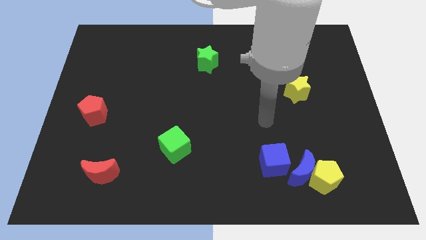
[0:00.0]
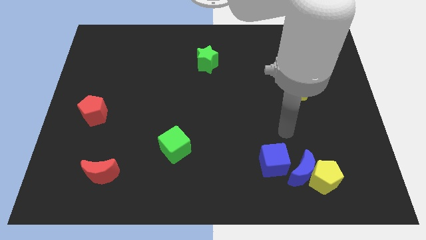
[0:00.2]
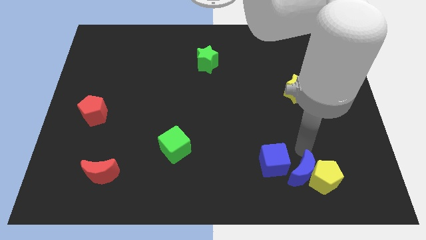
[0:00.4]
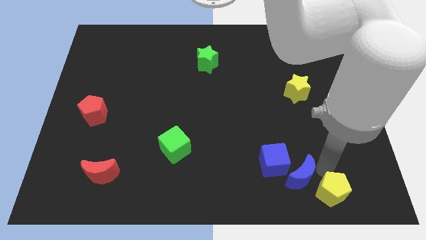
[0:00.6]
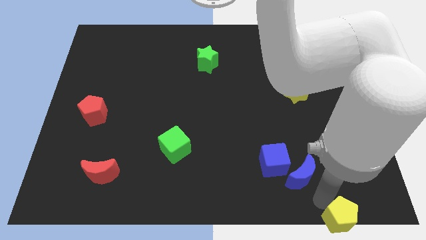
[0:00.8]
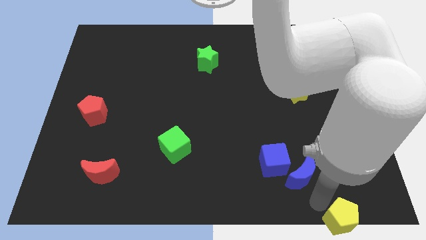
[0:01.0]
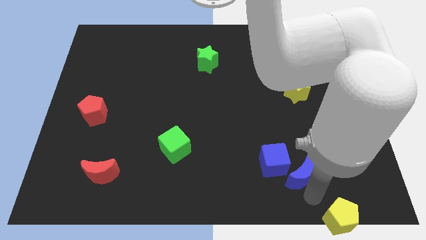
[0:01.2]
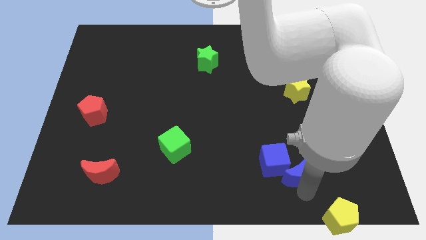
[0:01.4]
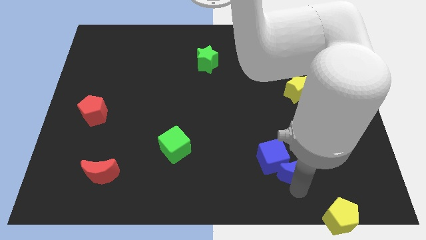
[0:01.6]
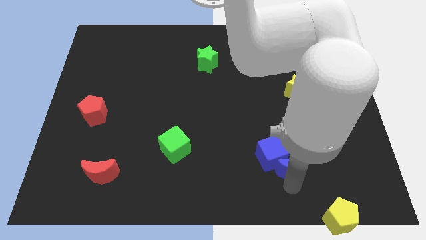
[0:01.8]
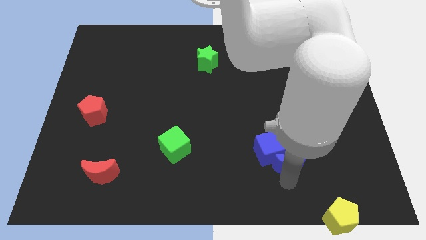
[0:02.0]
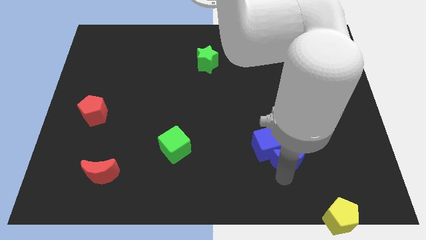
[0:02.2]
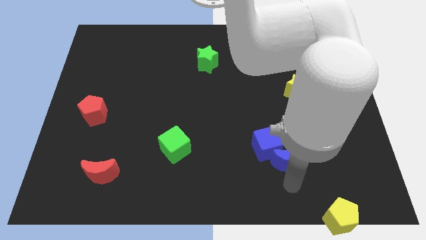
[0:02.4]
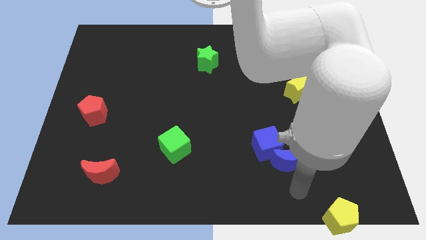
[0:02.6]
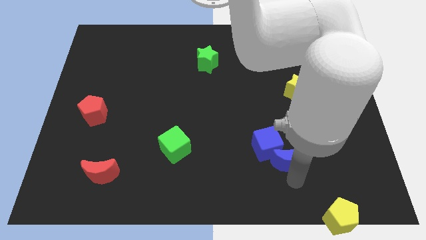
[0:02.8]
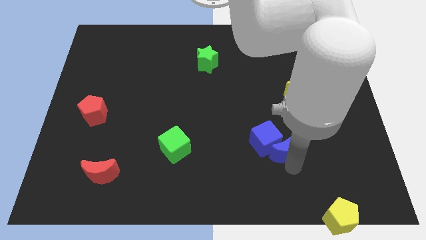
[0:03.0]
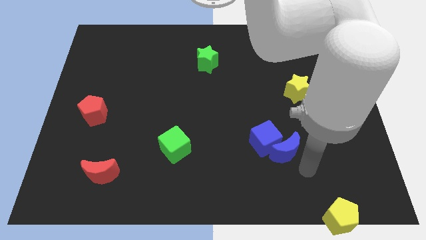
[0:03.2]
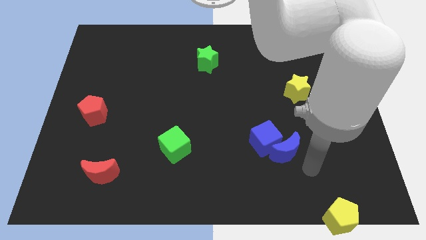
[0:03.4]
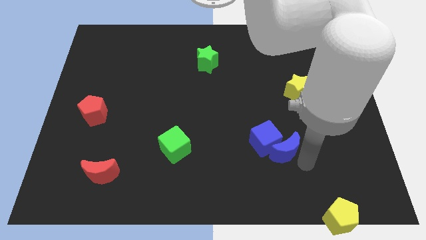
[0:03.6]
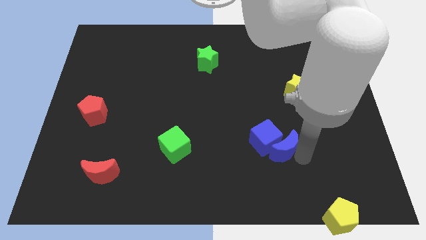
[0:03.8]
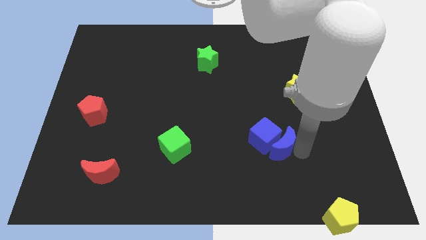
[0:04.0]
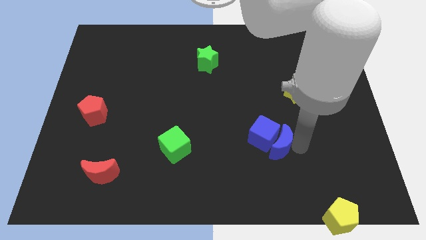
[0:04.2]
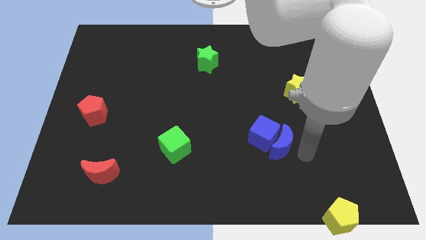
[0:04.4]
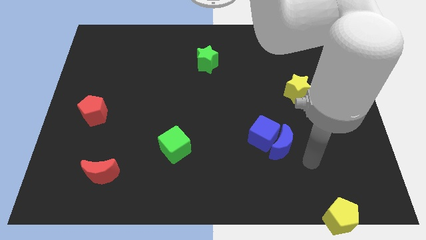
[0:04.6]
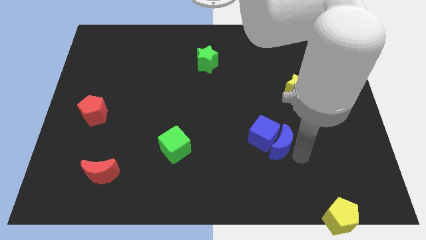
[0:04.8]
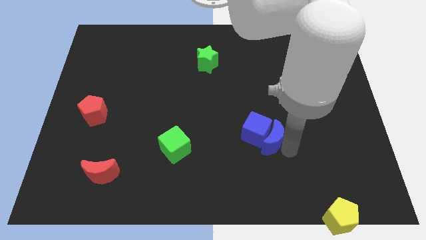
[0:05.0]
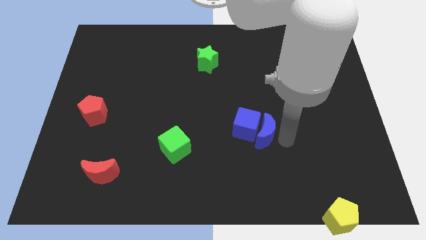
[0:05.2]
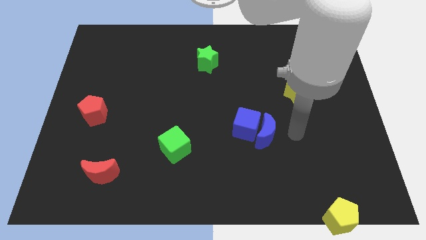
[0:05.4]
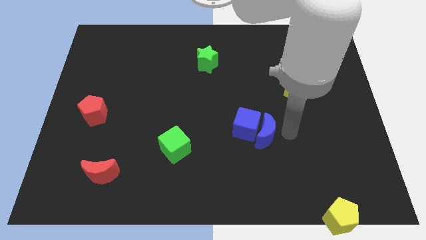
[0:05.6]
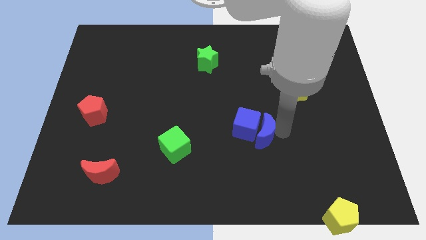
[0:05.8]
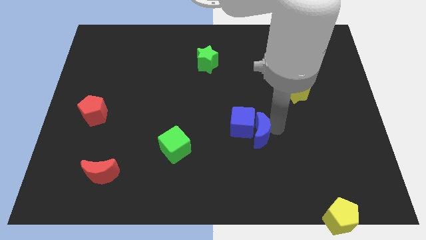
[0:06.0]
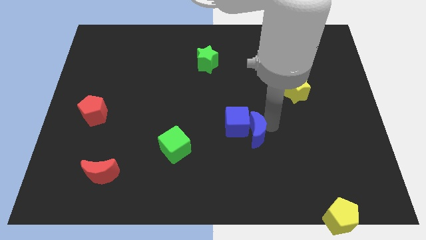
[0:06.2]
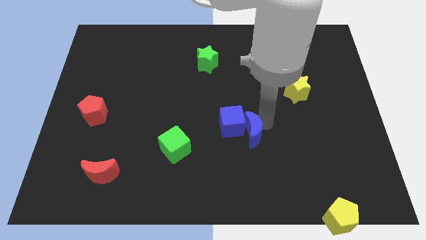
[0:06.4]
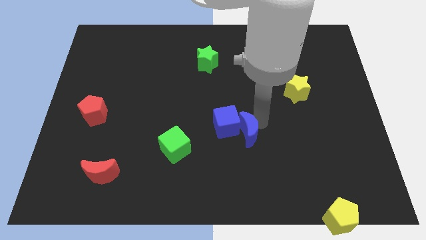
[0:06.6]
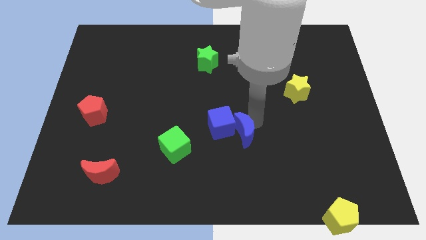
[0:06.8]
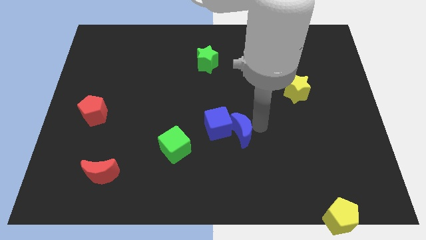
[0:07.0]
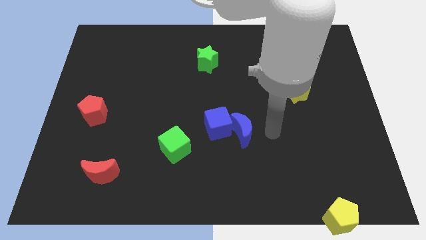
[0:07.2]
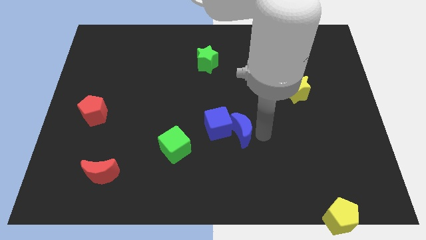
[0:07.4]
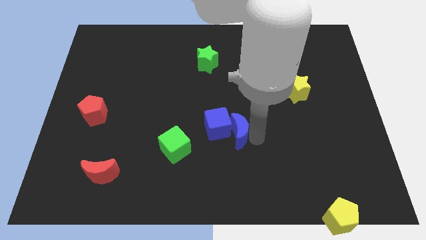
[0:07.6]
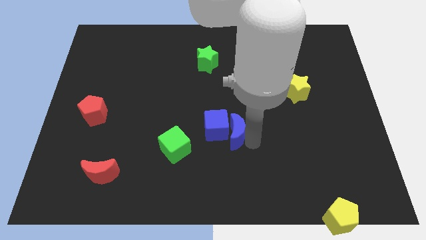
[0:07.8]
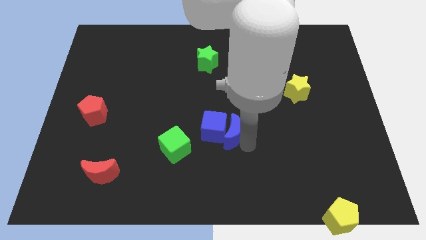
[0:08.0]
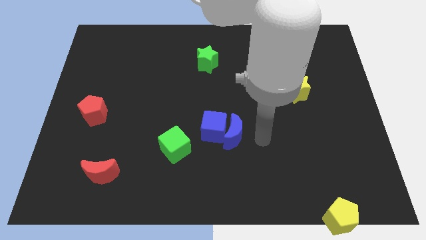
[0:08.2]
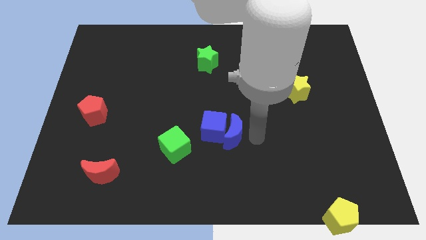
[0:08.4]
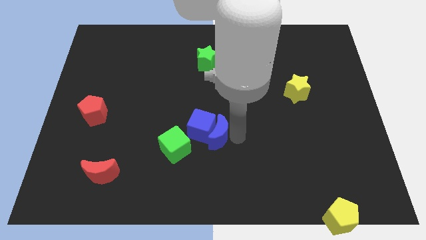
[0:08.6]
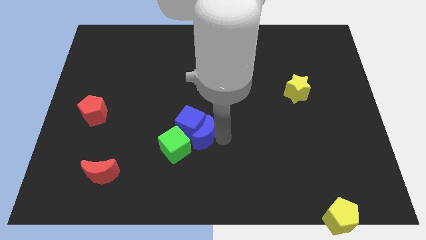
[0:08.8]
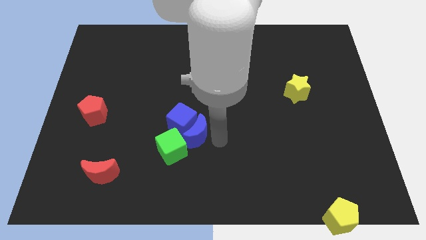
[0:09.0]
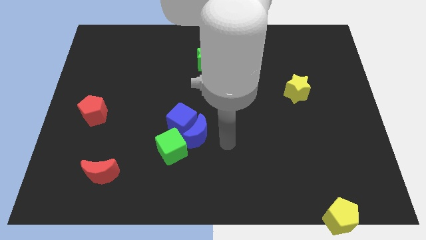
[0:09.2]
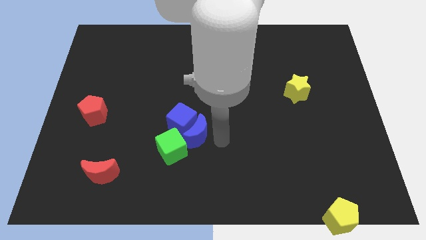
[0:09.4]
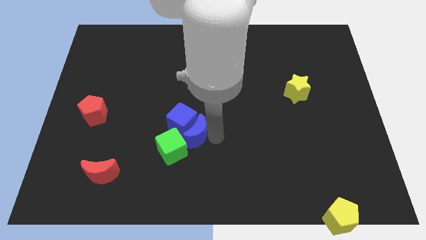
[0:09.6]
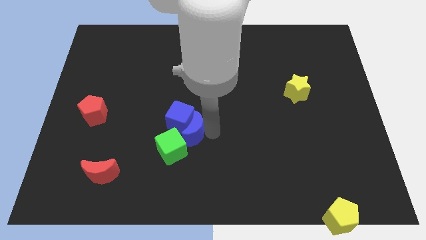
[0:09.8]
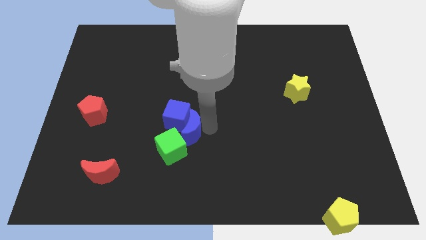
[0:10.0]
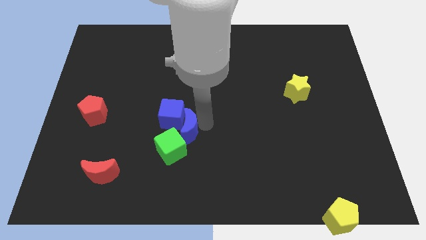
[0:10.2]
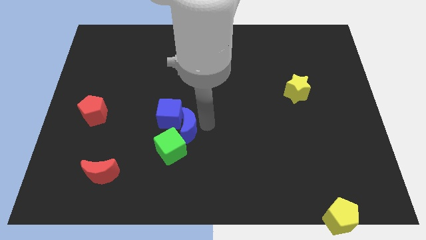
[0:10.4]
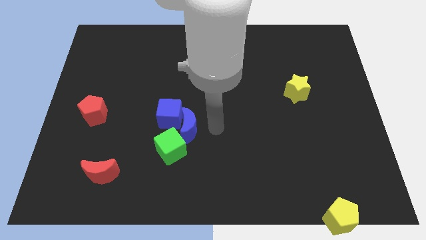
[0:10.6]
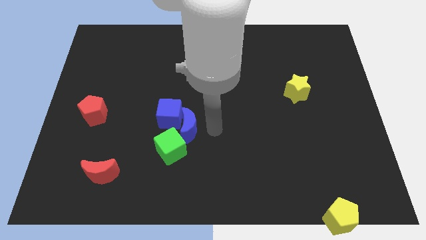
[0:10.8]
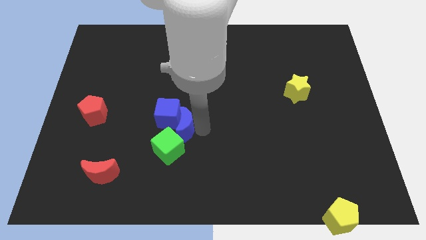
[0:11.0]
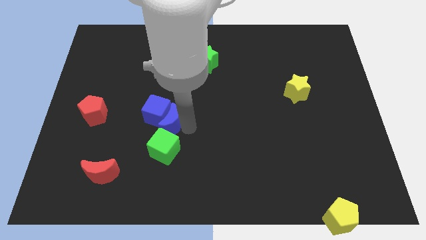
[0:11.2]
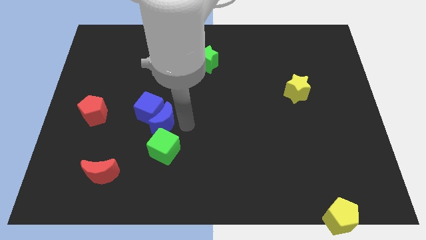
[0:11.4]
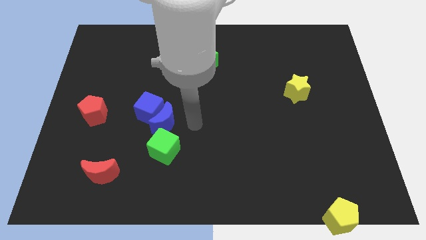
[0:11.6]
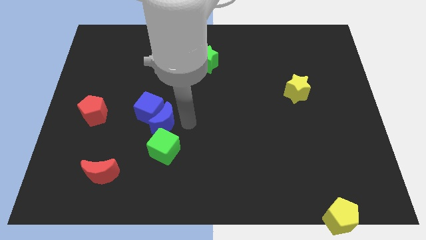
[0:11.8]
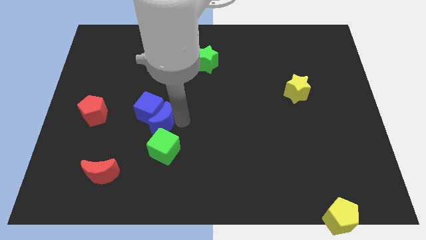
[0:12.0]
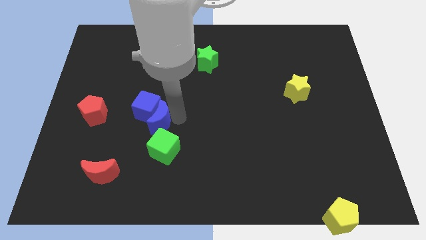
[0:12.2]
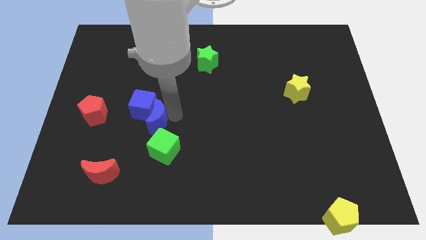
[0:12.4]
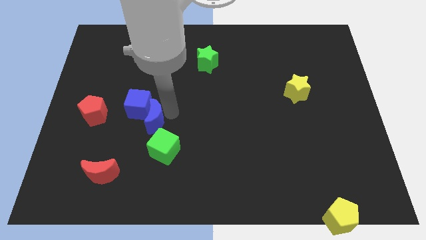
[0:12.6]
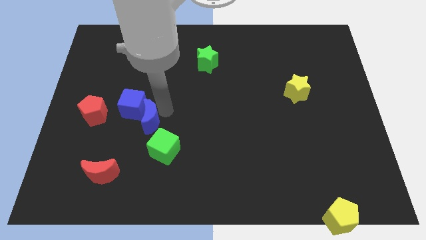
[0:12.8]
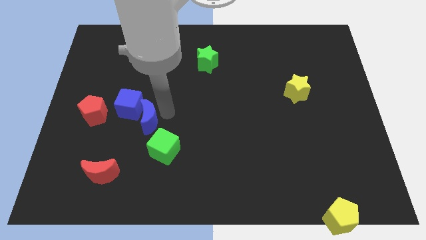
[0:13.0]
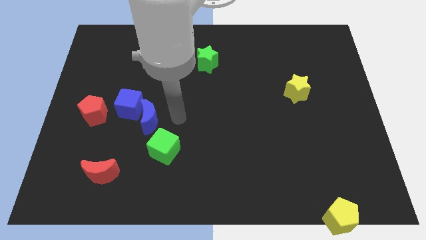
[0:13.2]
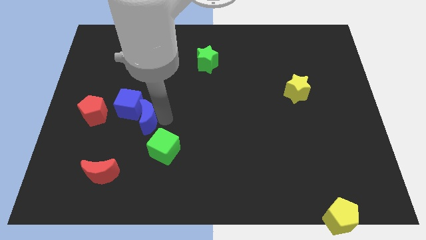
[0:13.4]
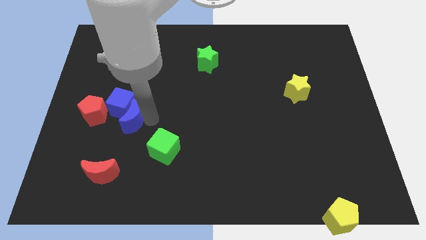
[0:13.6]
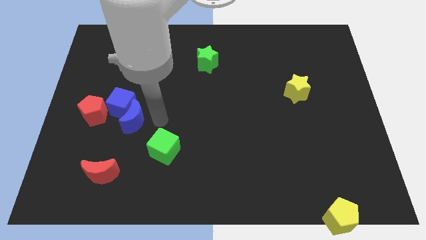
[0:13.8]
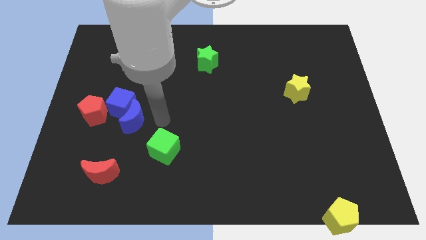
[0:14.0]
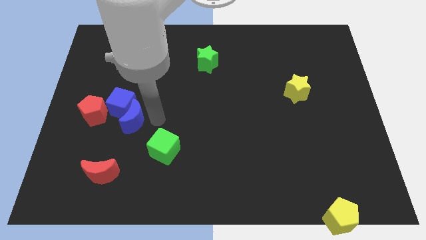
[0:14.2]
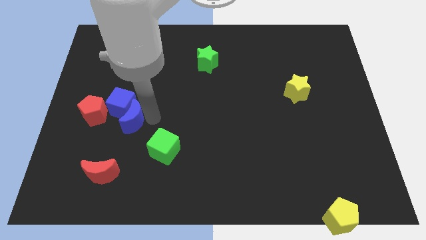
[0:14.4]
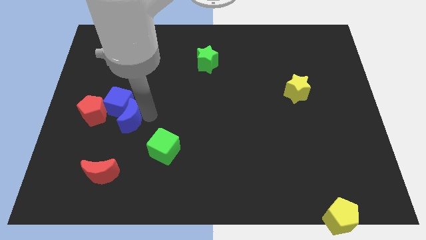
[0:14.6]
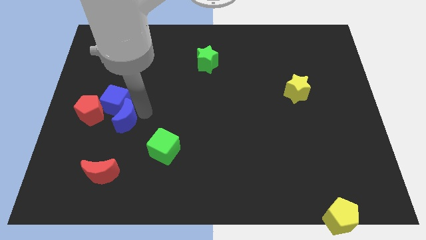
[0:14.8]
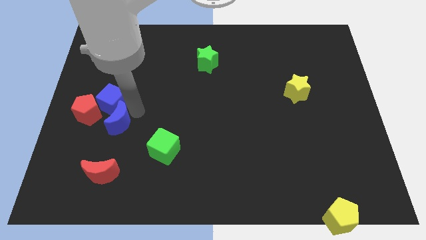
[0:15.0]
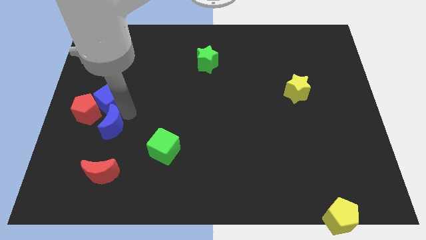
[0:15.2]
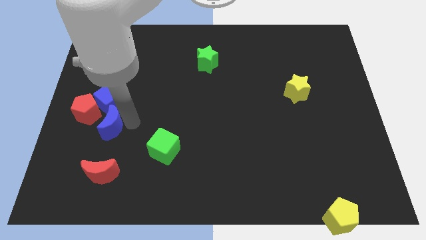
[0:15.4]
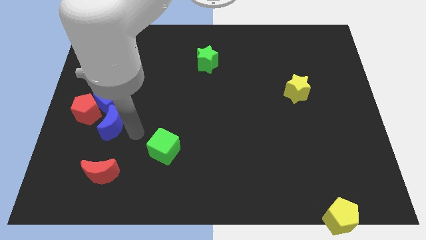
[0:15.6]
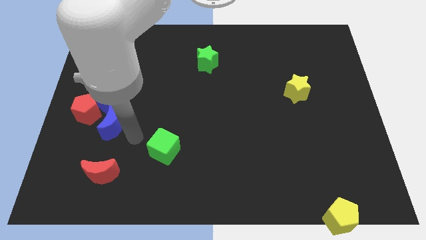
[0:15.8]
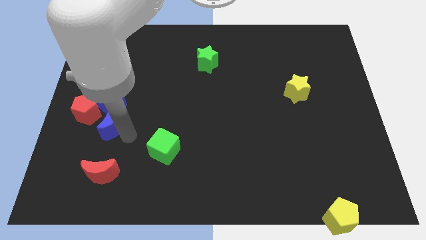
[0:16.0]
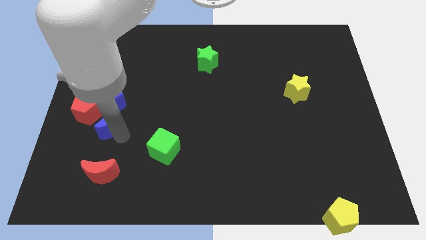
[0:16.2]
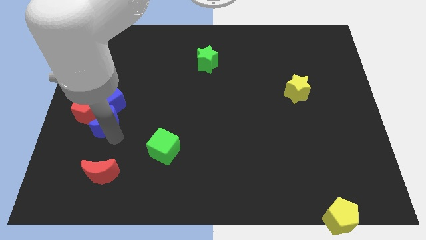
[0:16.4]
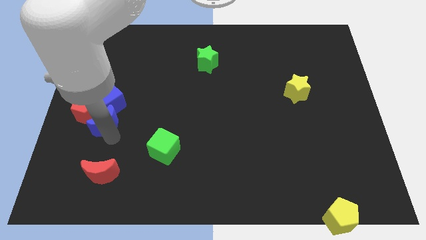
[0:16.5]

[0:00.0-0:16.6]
move the blue moon towards the red pentagon
